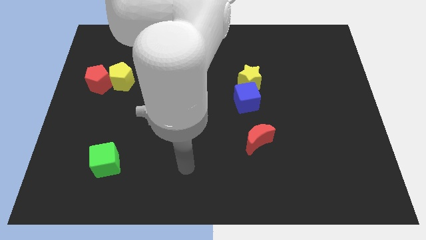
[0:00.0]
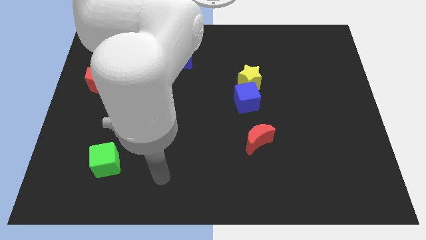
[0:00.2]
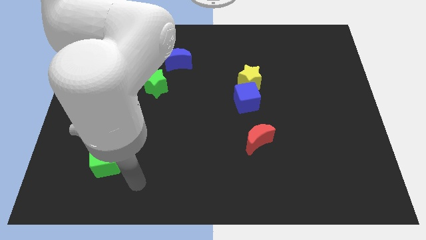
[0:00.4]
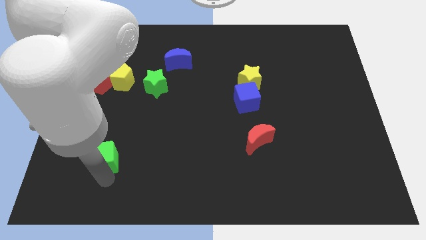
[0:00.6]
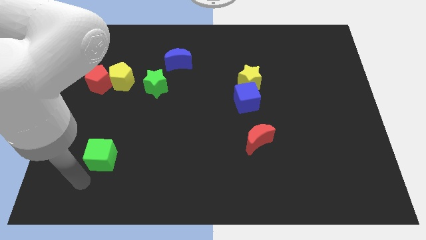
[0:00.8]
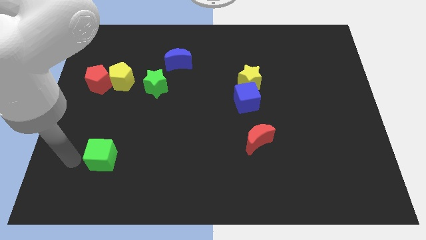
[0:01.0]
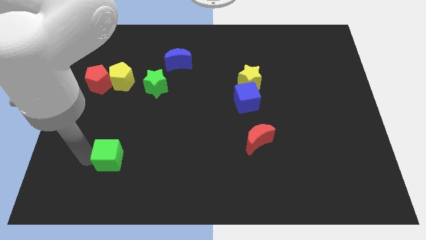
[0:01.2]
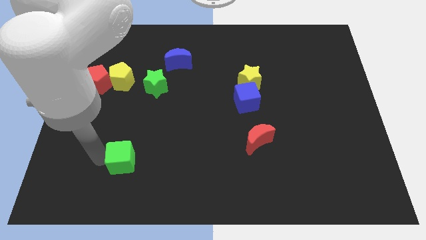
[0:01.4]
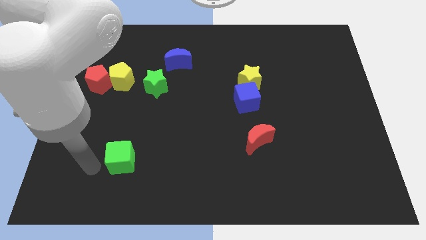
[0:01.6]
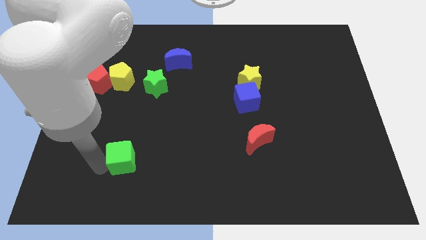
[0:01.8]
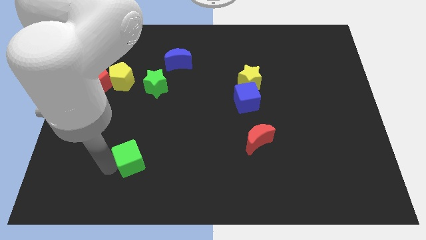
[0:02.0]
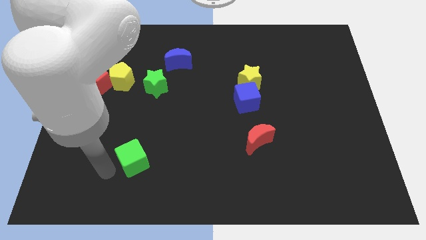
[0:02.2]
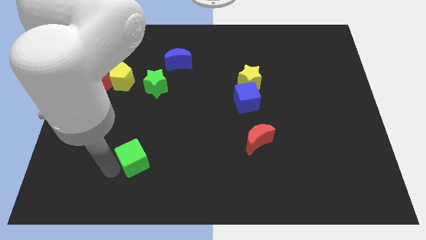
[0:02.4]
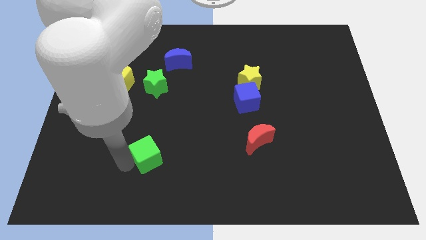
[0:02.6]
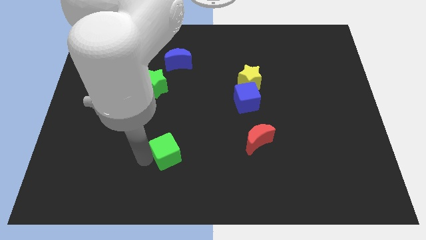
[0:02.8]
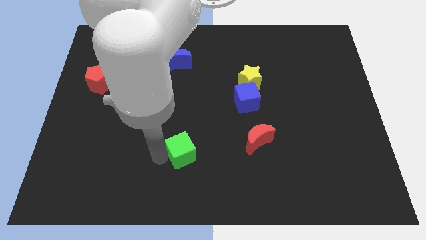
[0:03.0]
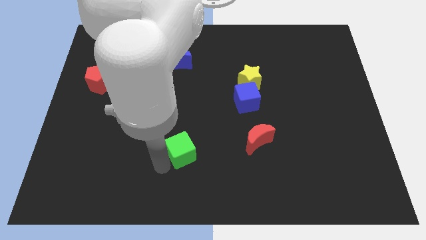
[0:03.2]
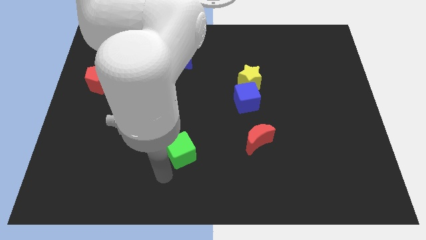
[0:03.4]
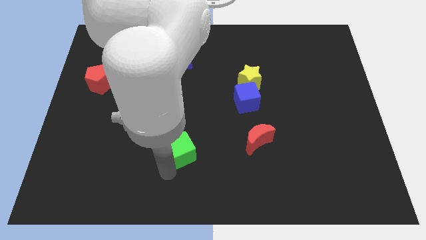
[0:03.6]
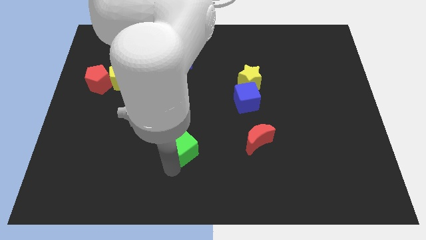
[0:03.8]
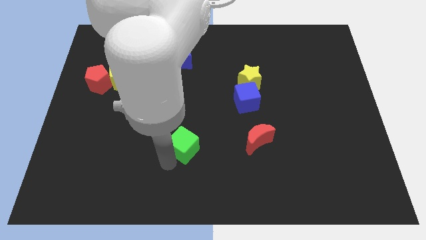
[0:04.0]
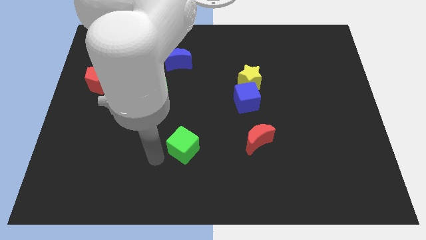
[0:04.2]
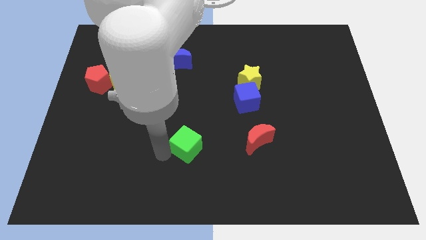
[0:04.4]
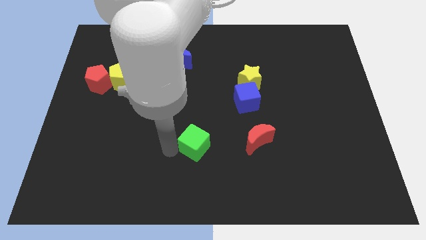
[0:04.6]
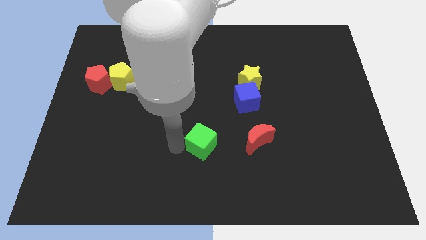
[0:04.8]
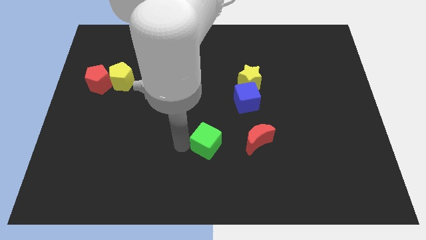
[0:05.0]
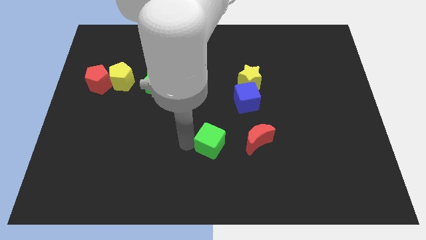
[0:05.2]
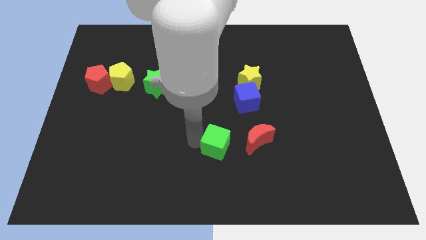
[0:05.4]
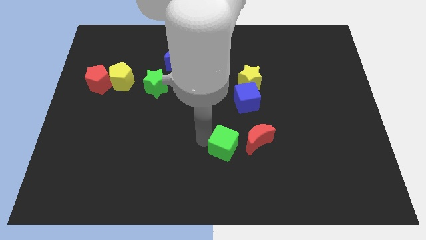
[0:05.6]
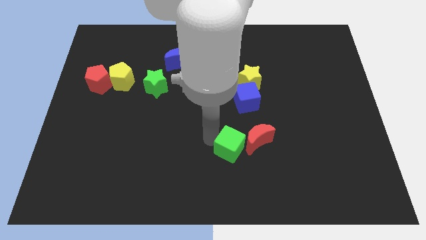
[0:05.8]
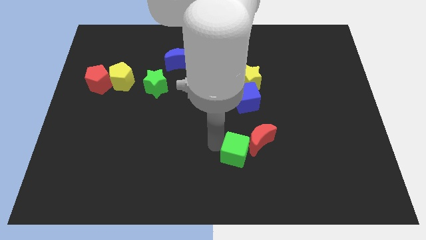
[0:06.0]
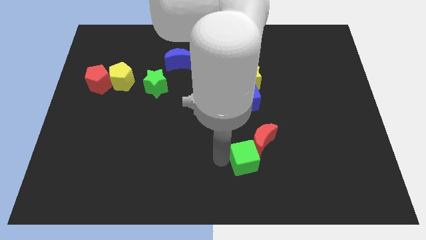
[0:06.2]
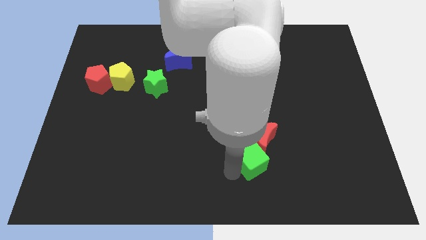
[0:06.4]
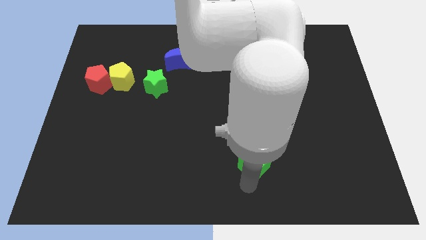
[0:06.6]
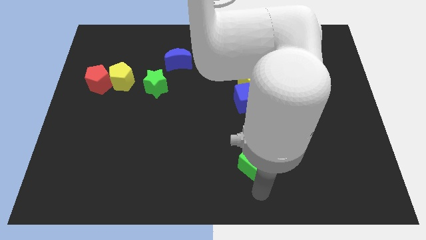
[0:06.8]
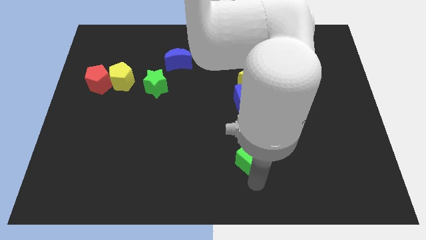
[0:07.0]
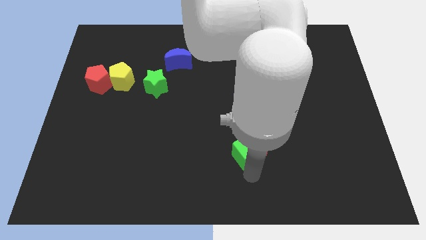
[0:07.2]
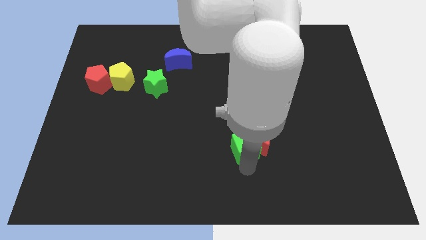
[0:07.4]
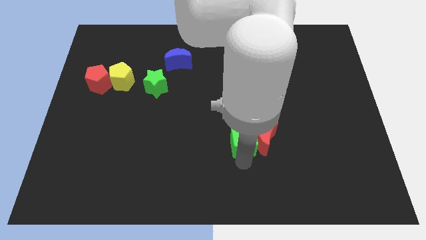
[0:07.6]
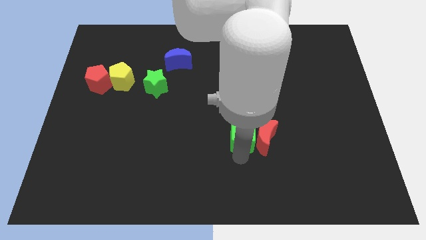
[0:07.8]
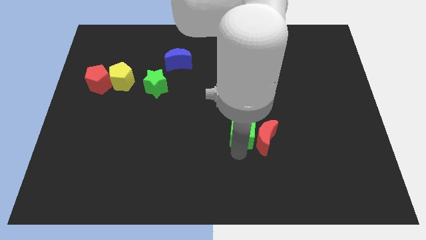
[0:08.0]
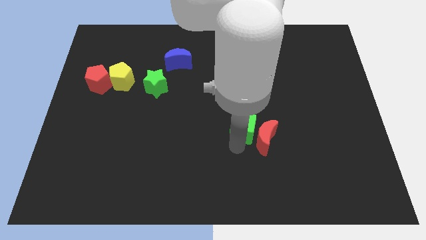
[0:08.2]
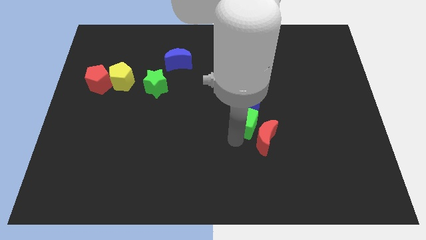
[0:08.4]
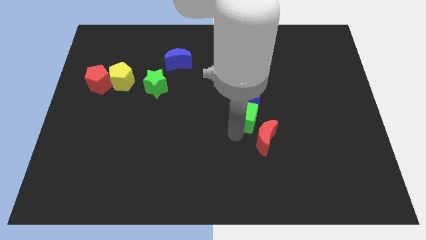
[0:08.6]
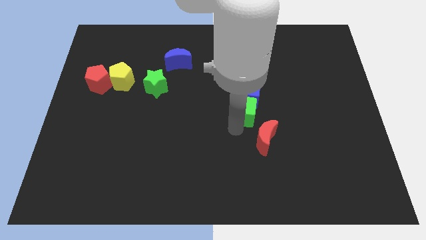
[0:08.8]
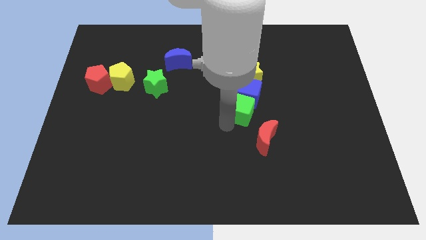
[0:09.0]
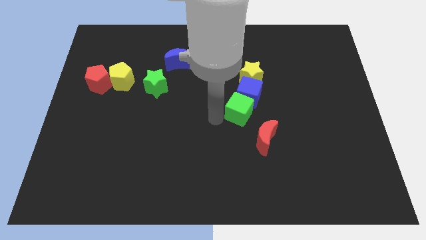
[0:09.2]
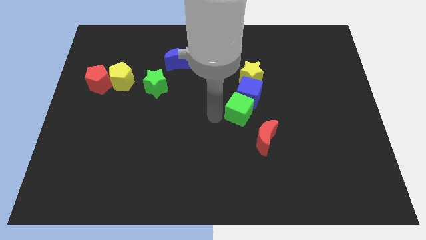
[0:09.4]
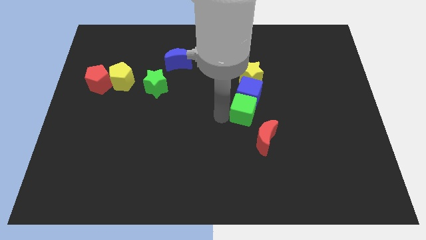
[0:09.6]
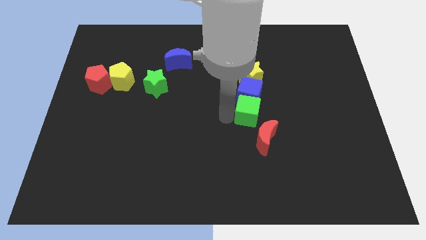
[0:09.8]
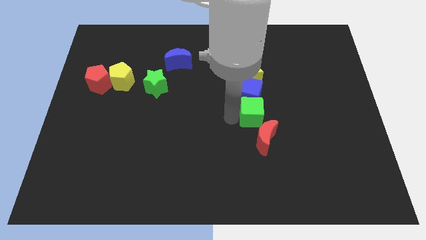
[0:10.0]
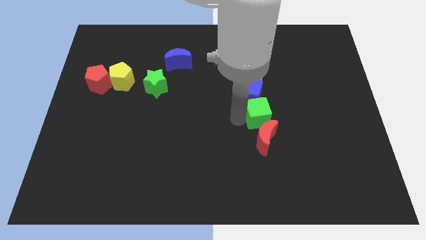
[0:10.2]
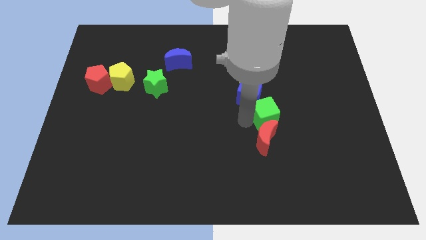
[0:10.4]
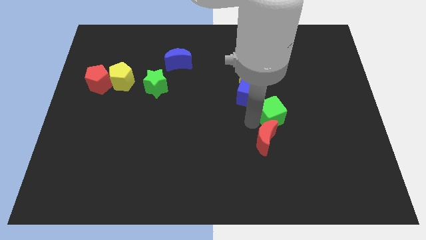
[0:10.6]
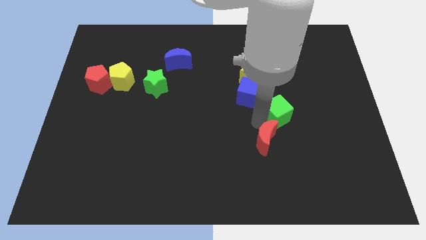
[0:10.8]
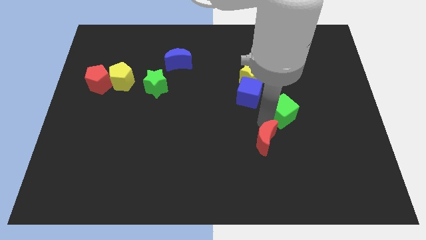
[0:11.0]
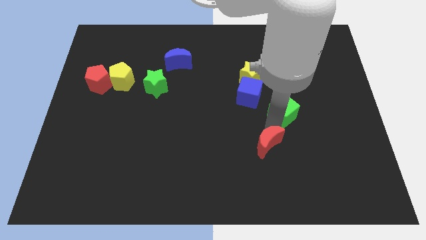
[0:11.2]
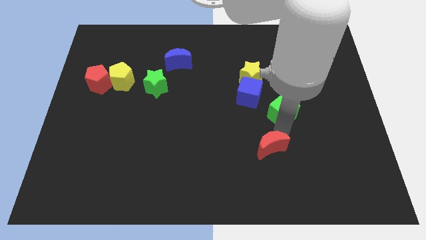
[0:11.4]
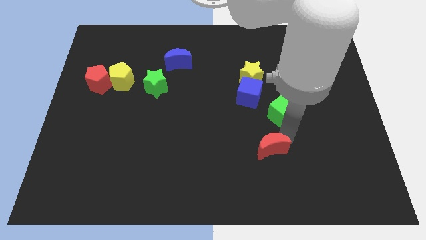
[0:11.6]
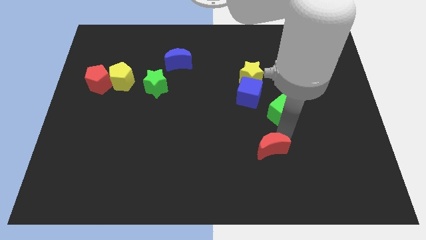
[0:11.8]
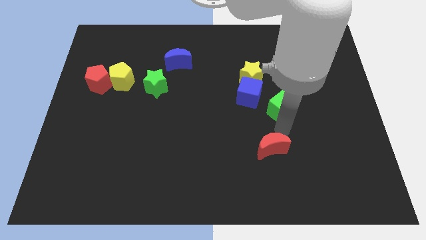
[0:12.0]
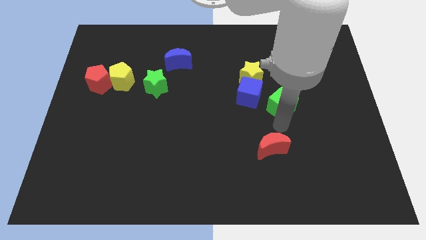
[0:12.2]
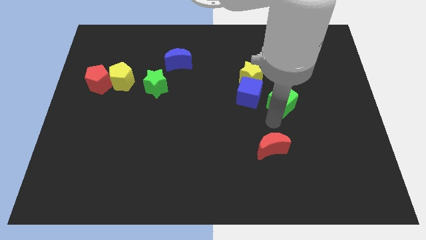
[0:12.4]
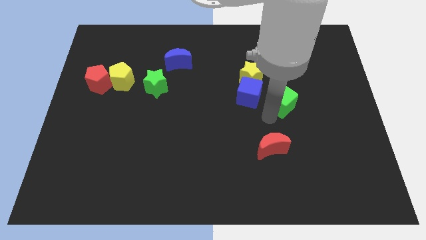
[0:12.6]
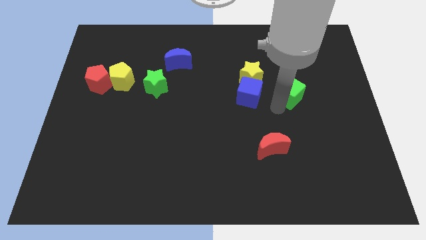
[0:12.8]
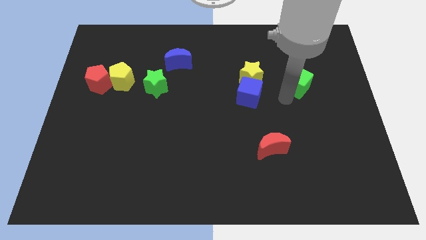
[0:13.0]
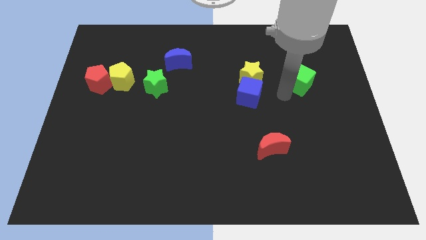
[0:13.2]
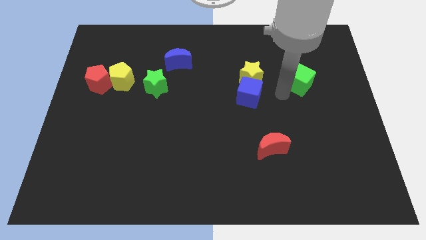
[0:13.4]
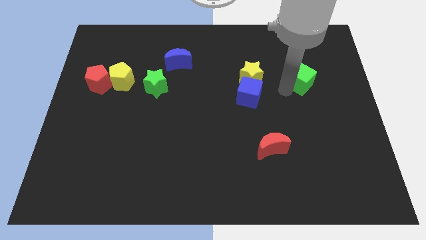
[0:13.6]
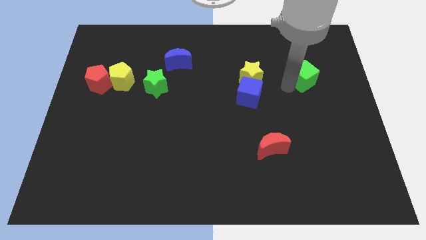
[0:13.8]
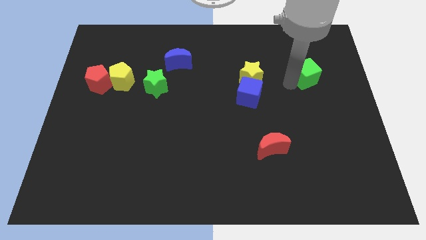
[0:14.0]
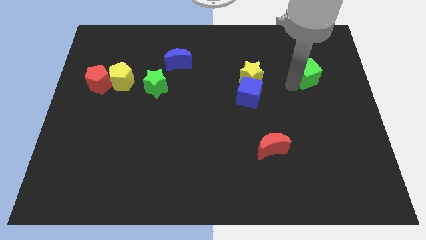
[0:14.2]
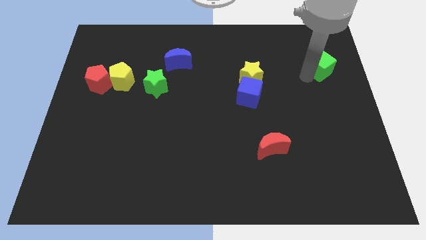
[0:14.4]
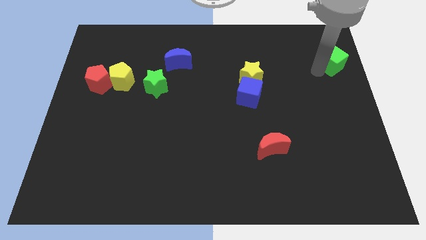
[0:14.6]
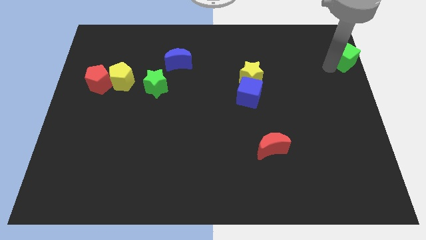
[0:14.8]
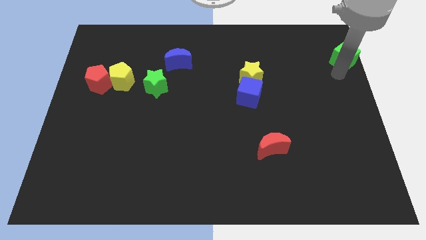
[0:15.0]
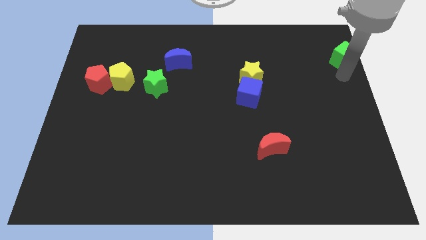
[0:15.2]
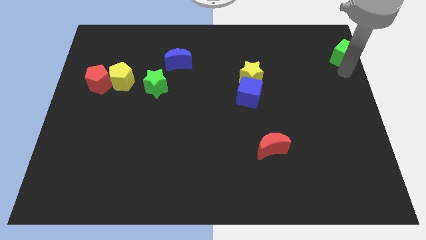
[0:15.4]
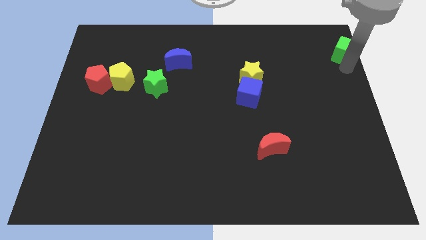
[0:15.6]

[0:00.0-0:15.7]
move the green cube to the top right corner
